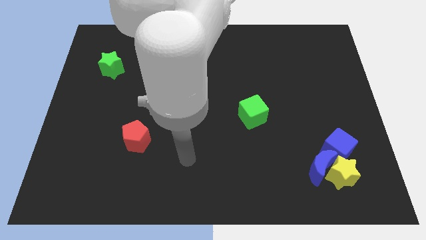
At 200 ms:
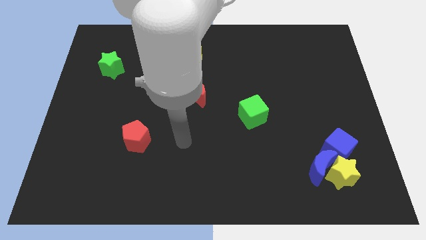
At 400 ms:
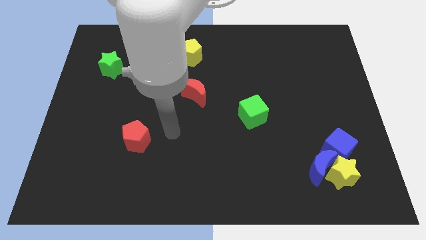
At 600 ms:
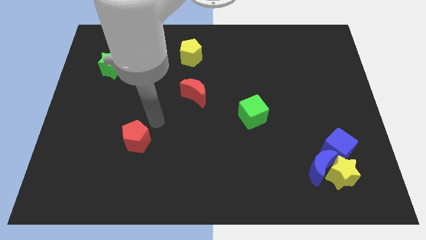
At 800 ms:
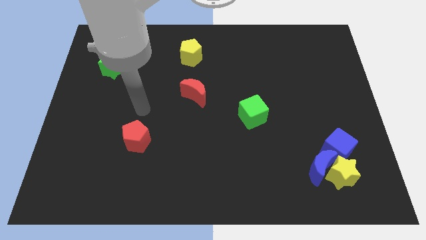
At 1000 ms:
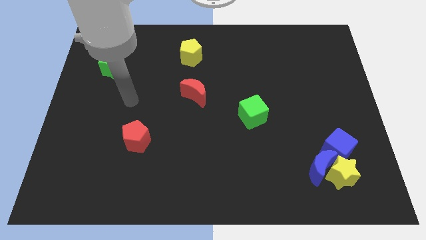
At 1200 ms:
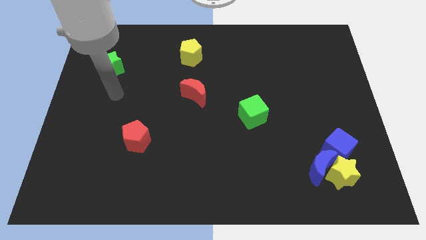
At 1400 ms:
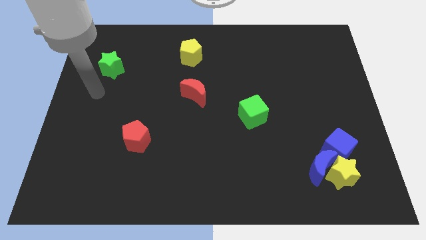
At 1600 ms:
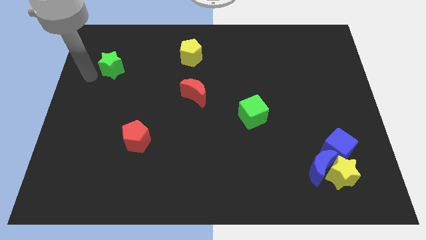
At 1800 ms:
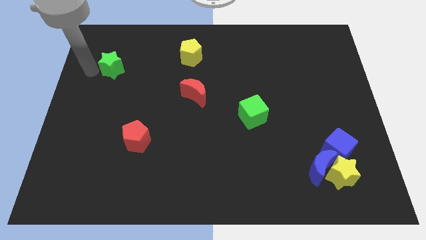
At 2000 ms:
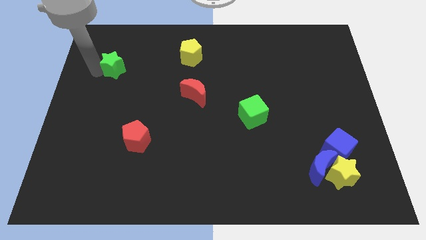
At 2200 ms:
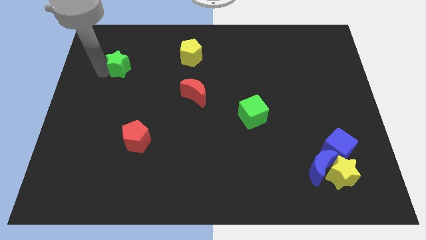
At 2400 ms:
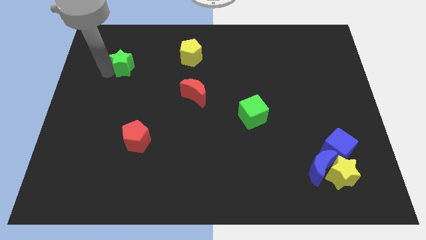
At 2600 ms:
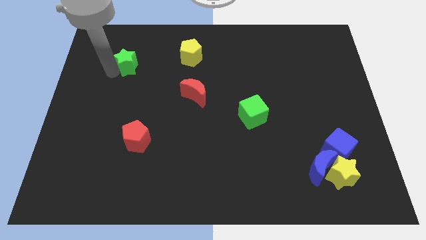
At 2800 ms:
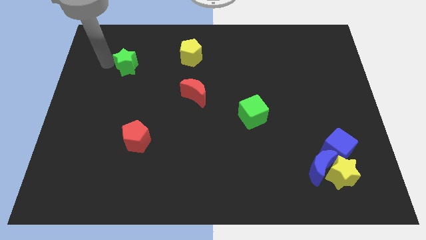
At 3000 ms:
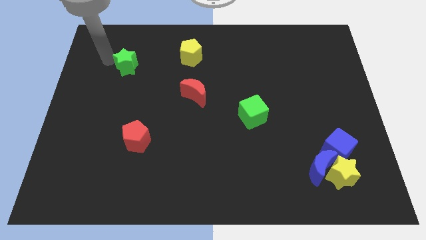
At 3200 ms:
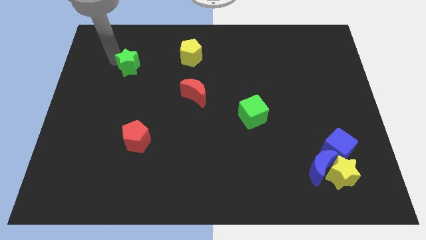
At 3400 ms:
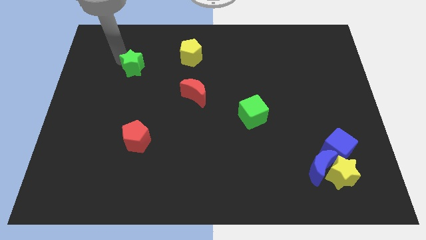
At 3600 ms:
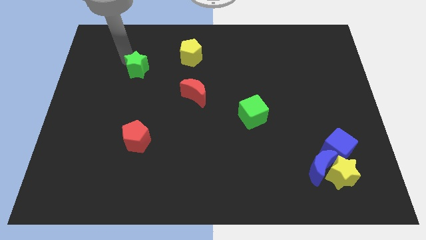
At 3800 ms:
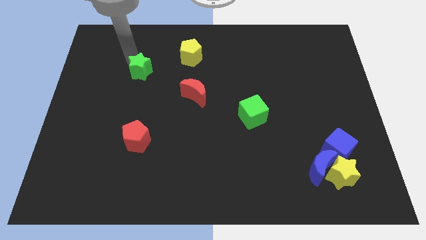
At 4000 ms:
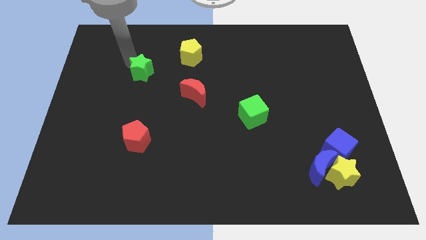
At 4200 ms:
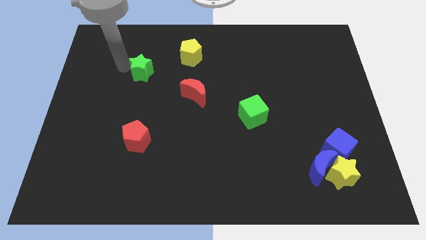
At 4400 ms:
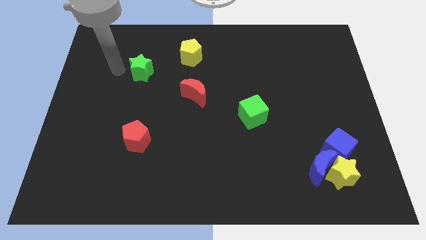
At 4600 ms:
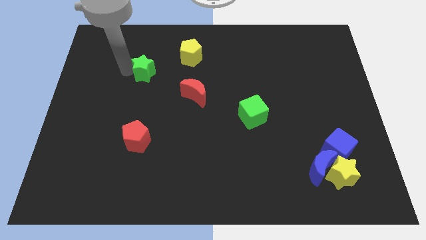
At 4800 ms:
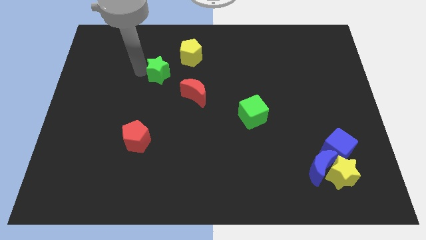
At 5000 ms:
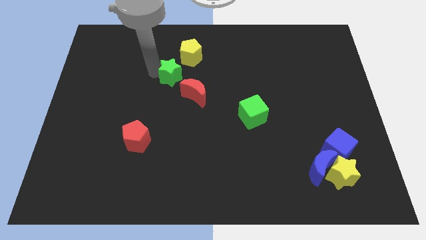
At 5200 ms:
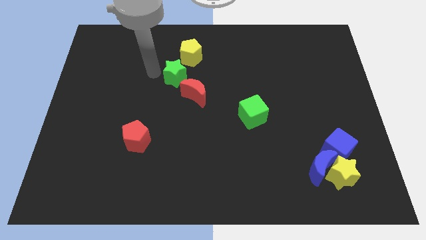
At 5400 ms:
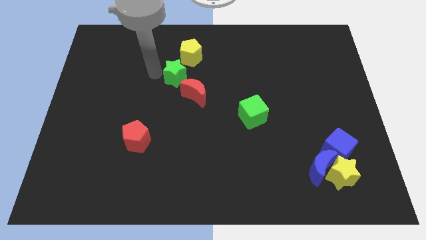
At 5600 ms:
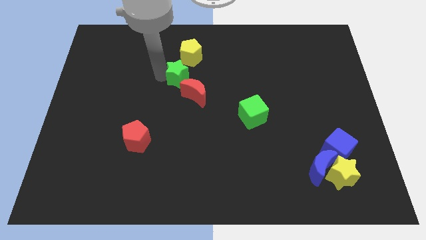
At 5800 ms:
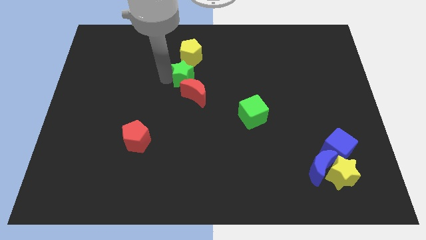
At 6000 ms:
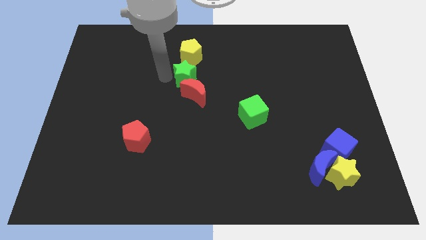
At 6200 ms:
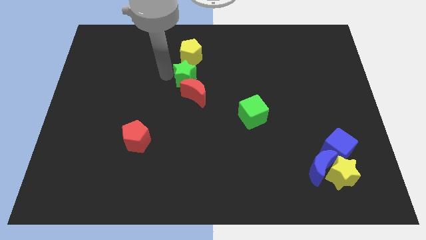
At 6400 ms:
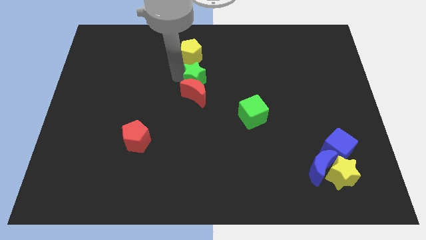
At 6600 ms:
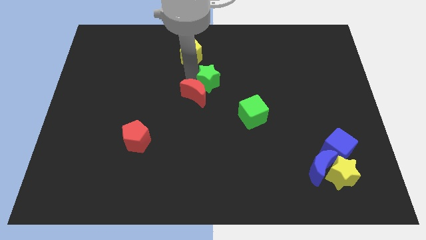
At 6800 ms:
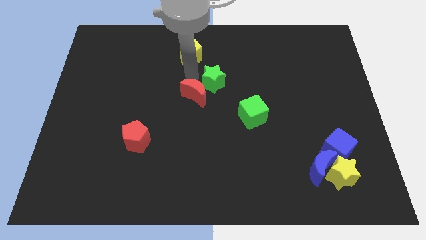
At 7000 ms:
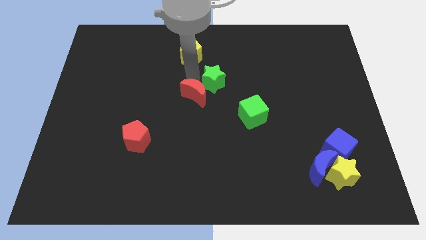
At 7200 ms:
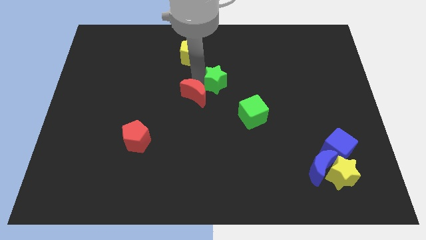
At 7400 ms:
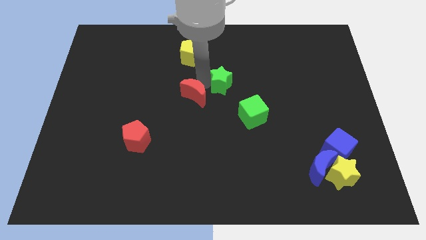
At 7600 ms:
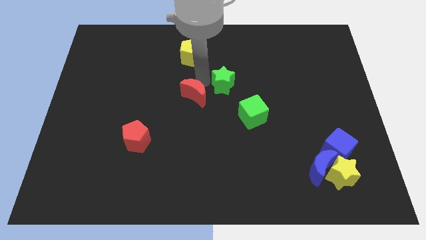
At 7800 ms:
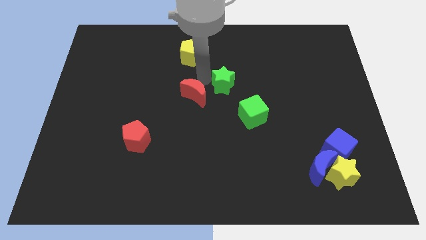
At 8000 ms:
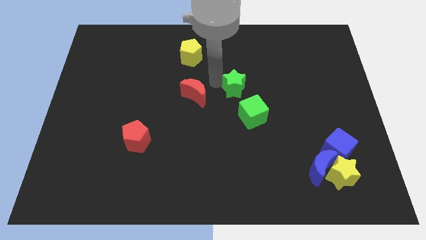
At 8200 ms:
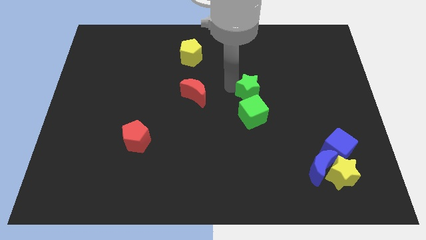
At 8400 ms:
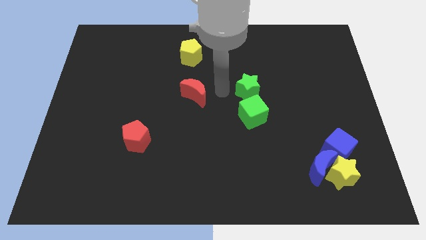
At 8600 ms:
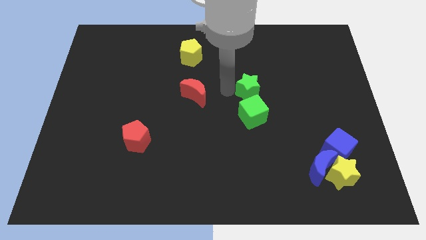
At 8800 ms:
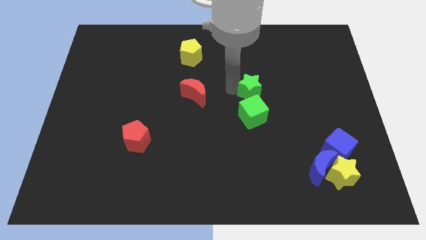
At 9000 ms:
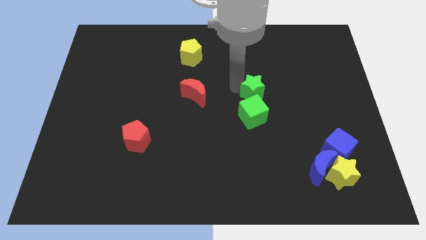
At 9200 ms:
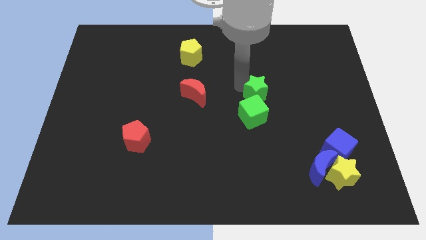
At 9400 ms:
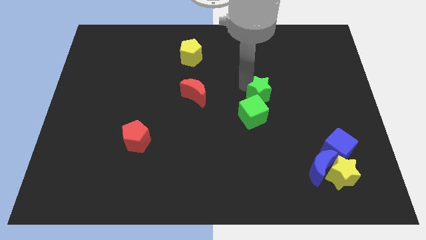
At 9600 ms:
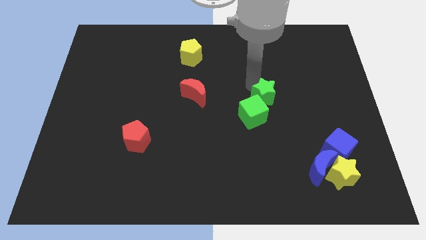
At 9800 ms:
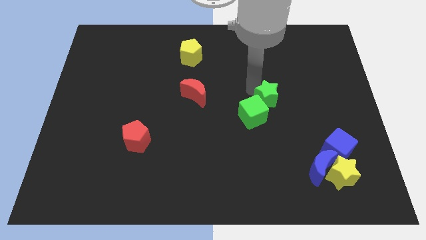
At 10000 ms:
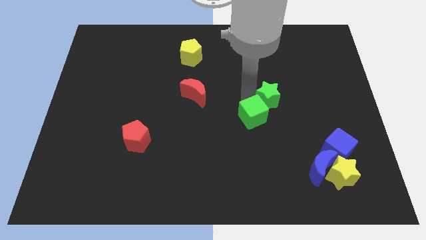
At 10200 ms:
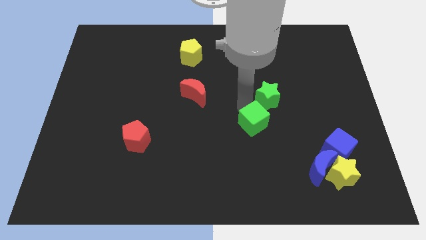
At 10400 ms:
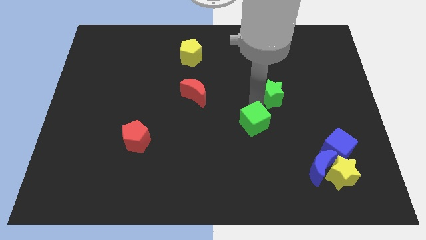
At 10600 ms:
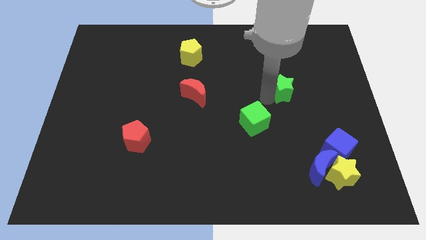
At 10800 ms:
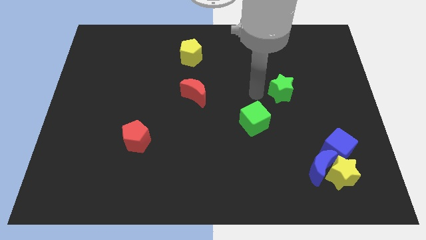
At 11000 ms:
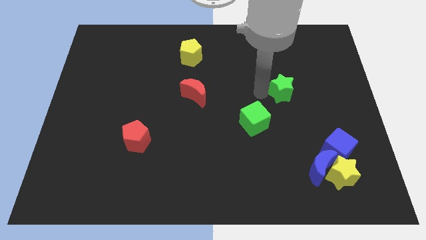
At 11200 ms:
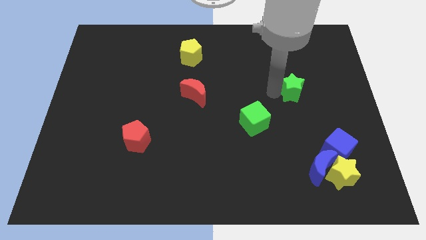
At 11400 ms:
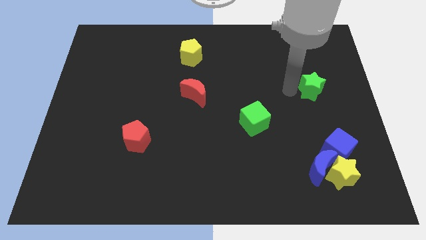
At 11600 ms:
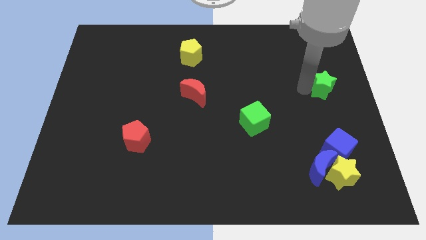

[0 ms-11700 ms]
put the green star to the right side of the board
